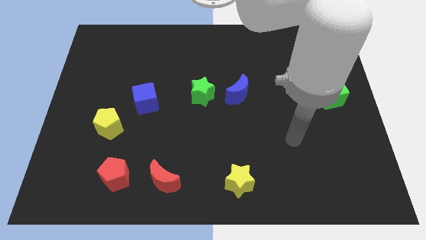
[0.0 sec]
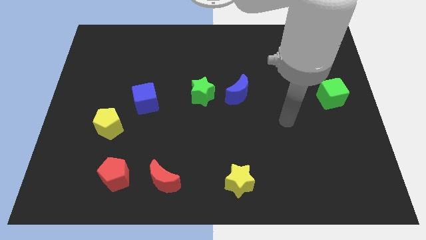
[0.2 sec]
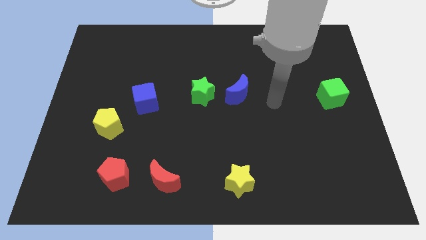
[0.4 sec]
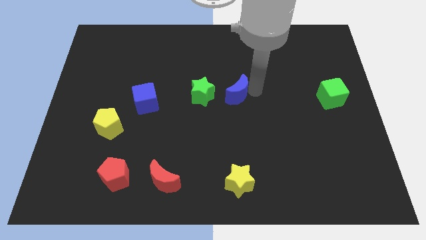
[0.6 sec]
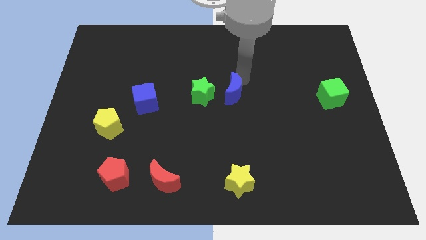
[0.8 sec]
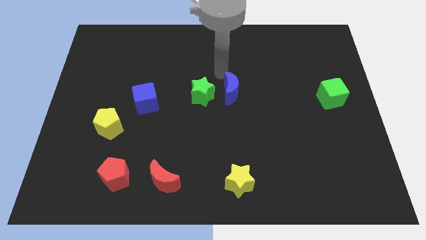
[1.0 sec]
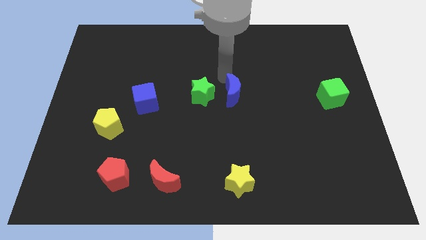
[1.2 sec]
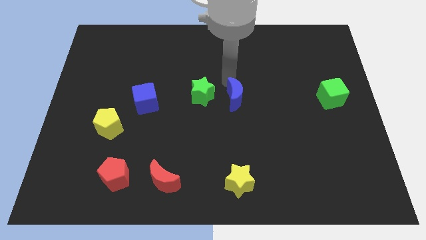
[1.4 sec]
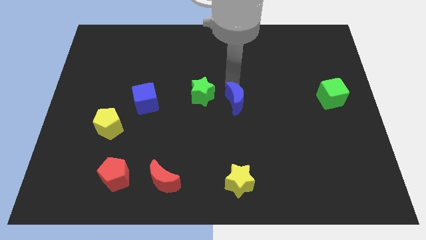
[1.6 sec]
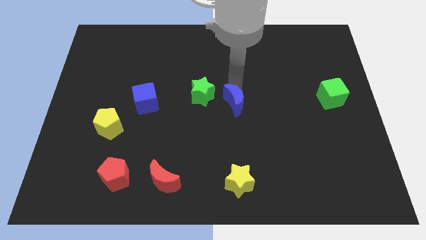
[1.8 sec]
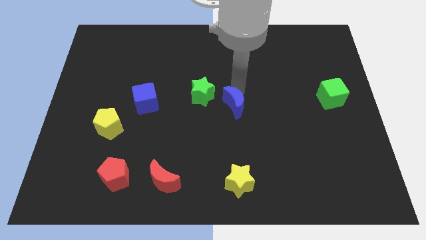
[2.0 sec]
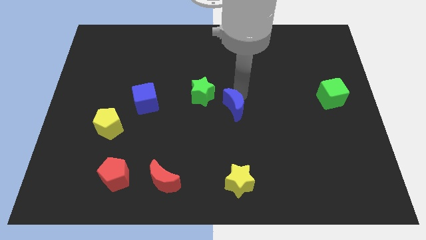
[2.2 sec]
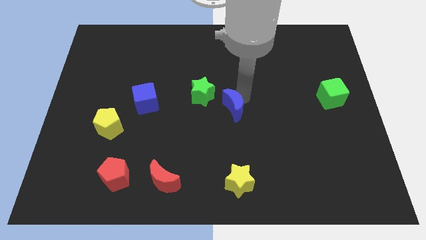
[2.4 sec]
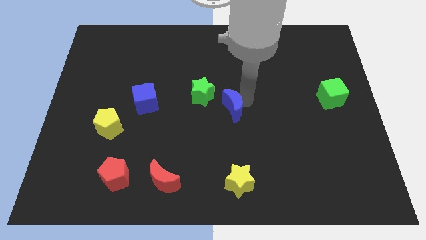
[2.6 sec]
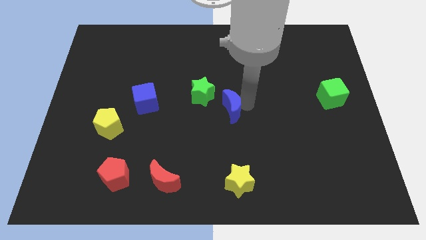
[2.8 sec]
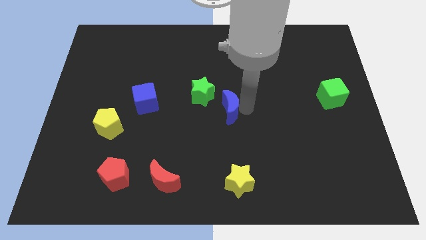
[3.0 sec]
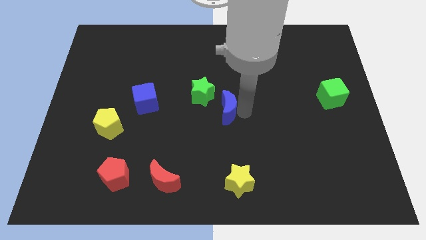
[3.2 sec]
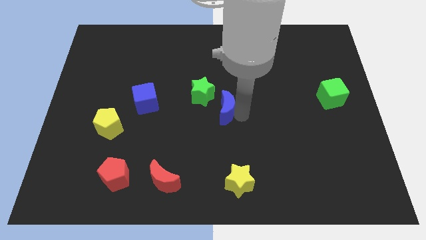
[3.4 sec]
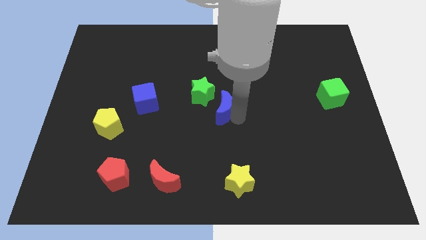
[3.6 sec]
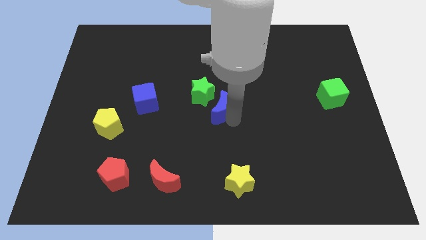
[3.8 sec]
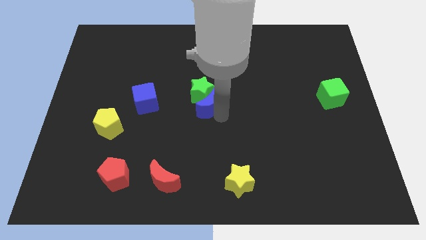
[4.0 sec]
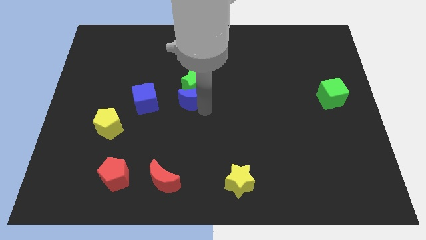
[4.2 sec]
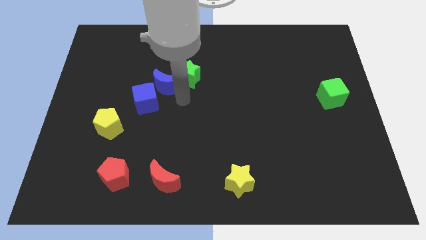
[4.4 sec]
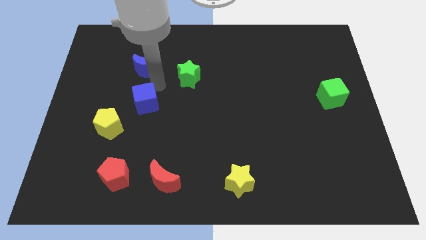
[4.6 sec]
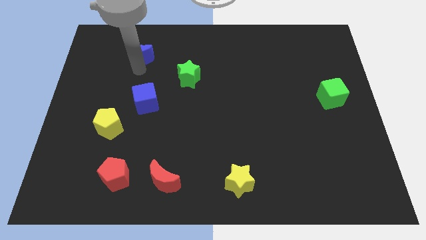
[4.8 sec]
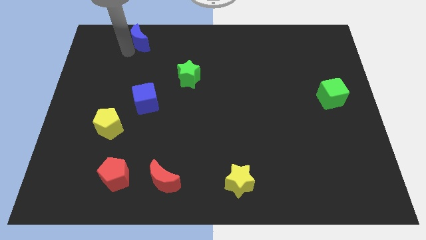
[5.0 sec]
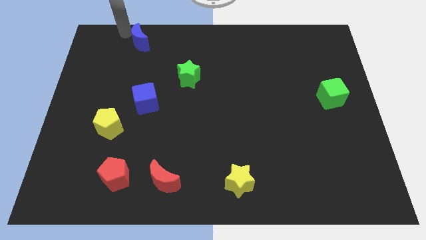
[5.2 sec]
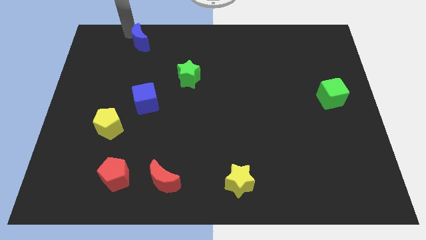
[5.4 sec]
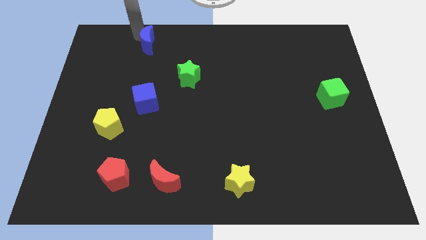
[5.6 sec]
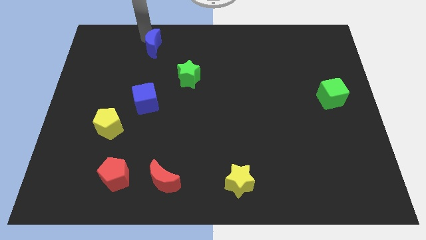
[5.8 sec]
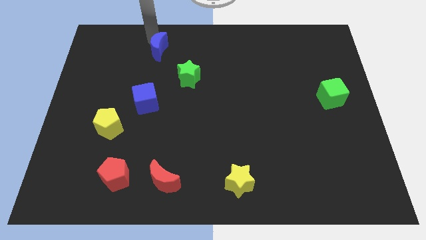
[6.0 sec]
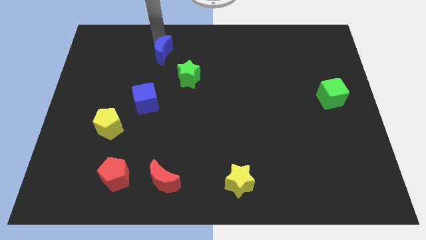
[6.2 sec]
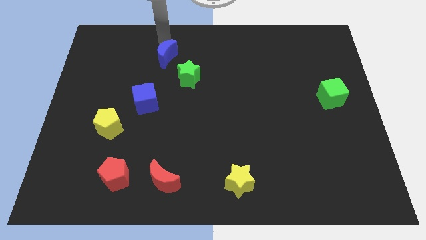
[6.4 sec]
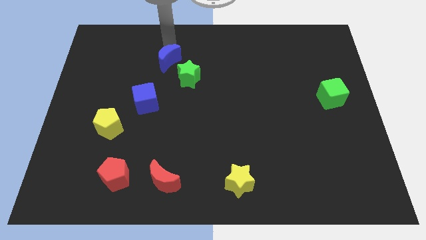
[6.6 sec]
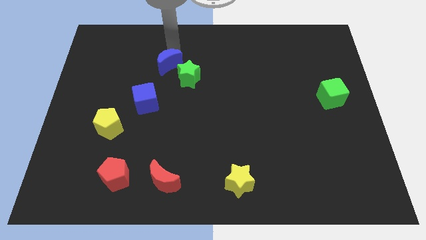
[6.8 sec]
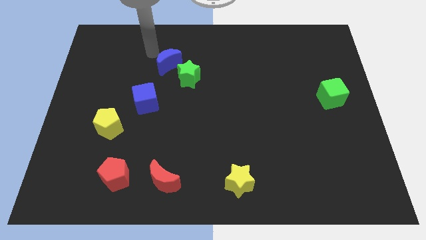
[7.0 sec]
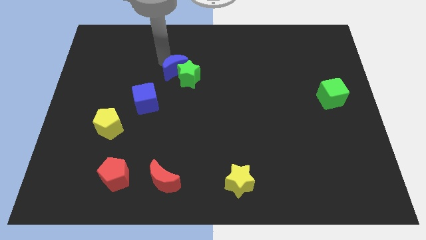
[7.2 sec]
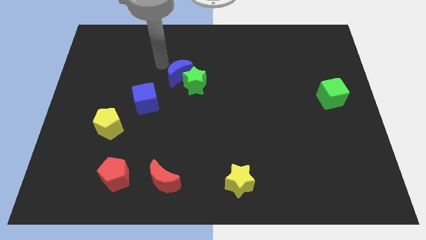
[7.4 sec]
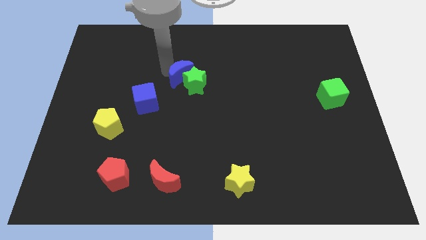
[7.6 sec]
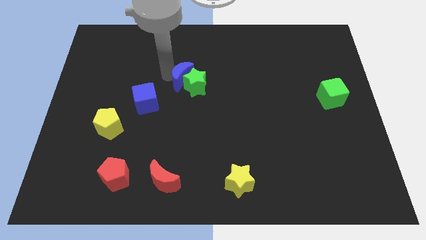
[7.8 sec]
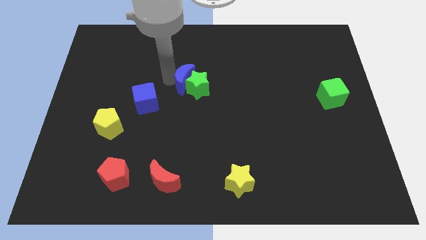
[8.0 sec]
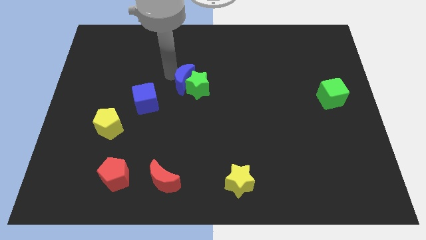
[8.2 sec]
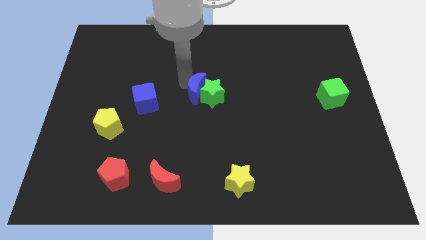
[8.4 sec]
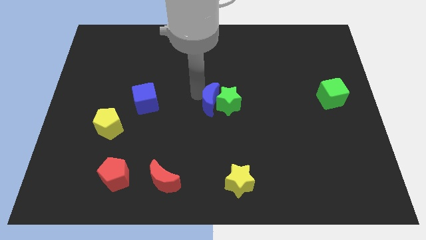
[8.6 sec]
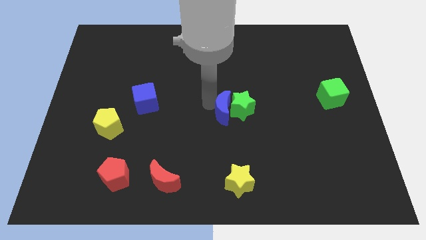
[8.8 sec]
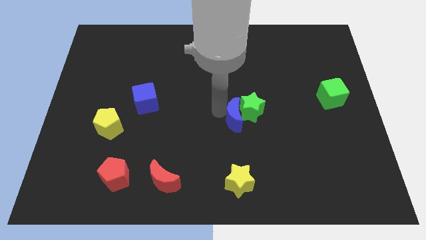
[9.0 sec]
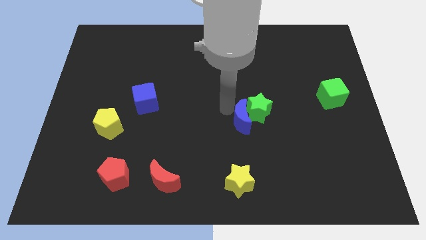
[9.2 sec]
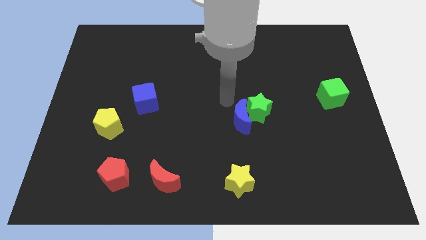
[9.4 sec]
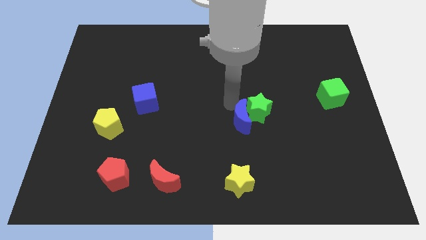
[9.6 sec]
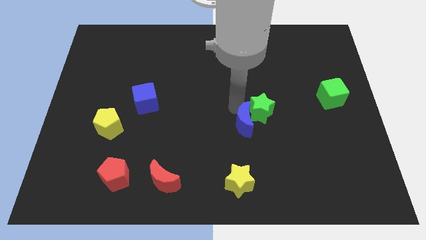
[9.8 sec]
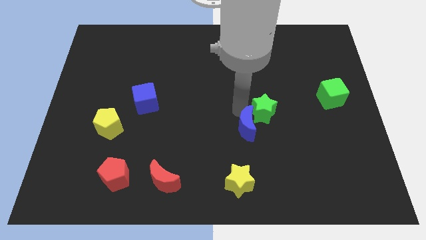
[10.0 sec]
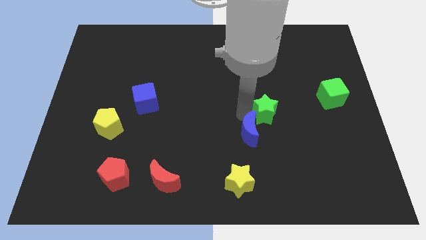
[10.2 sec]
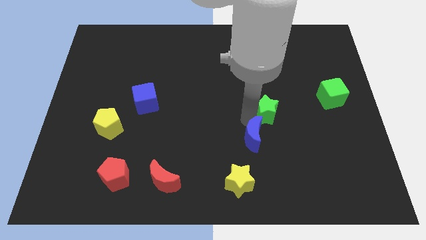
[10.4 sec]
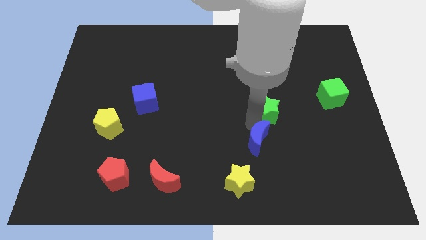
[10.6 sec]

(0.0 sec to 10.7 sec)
move the blue moon diagonally up and to the right of the yellow star

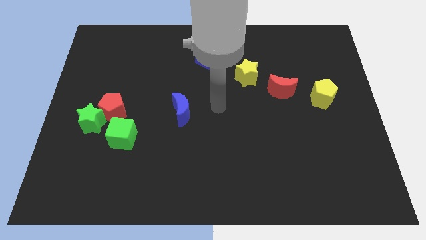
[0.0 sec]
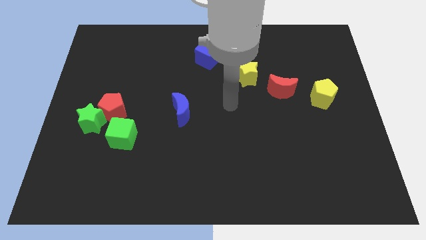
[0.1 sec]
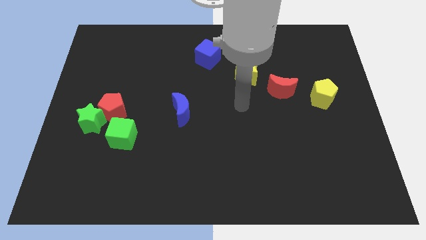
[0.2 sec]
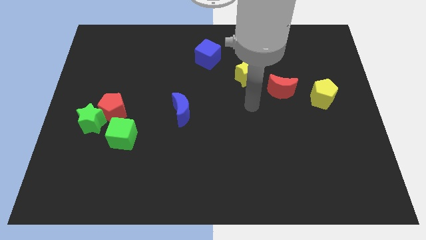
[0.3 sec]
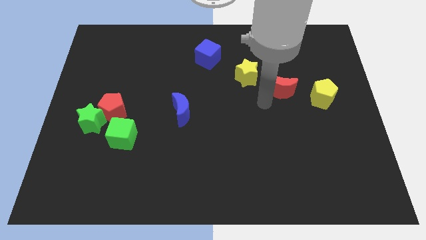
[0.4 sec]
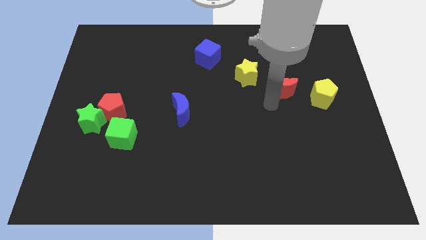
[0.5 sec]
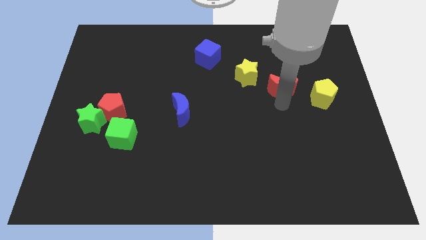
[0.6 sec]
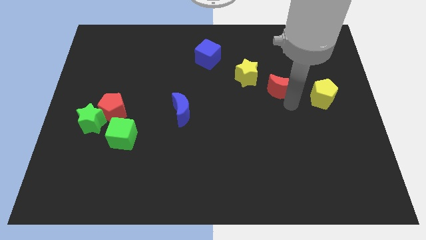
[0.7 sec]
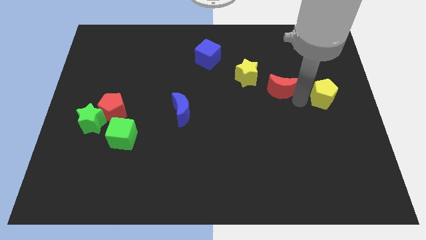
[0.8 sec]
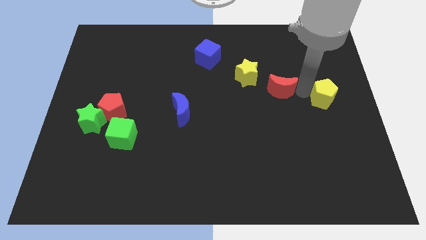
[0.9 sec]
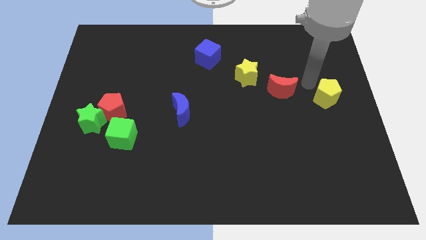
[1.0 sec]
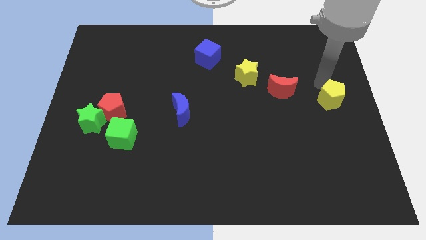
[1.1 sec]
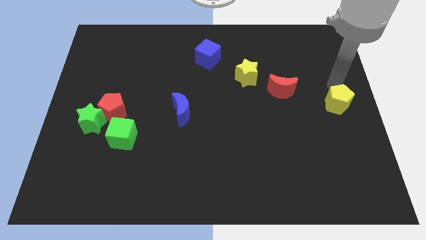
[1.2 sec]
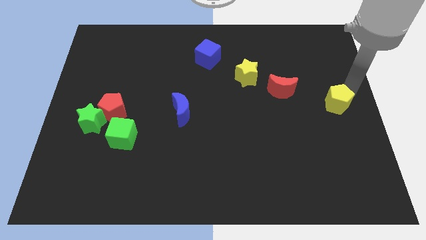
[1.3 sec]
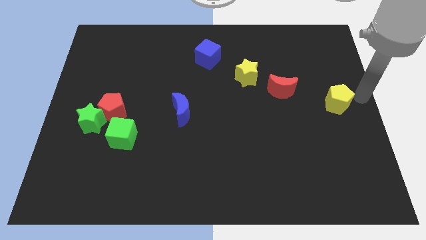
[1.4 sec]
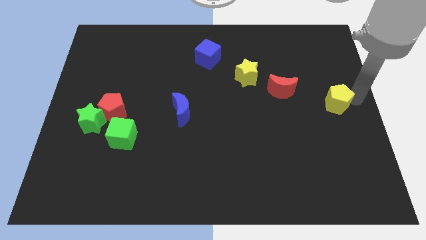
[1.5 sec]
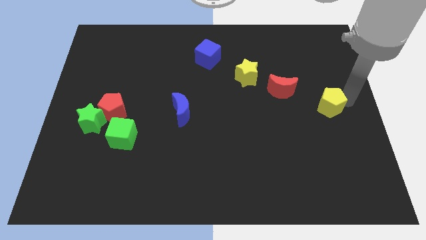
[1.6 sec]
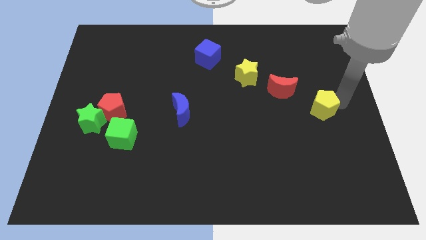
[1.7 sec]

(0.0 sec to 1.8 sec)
put the yellow pentagon to the bottom right of the red moon

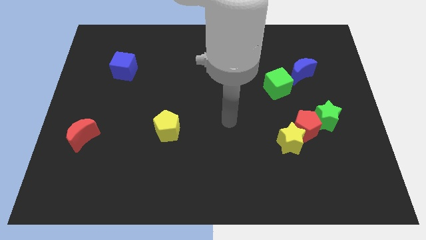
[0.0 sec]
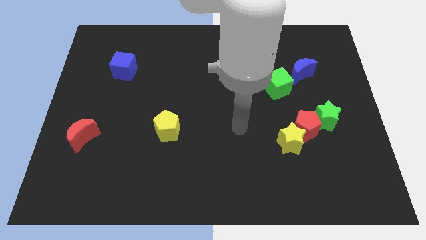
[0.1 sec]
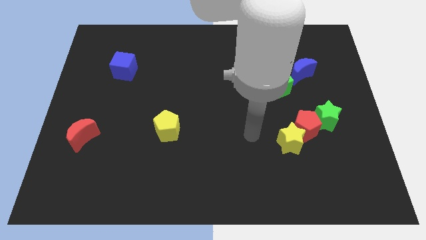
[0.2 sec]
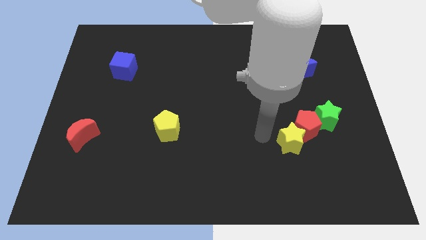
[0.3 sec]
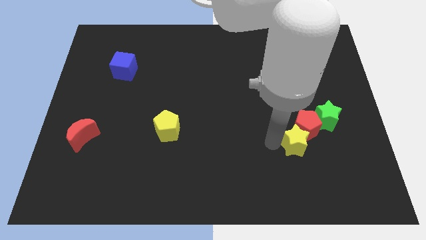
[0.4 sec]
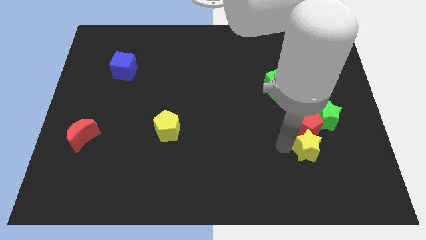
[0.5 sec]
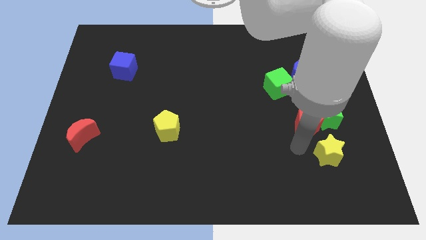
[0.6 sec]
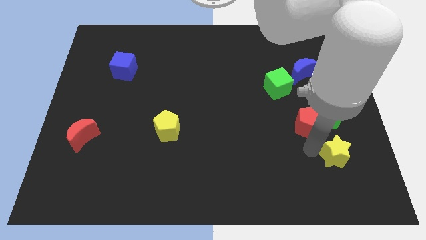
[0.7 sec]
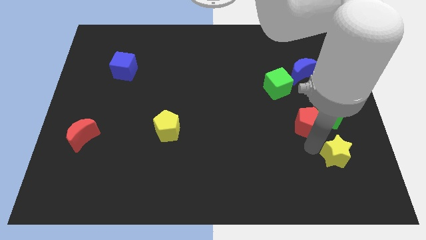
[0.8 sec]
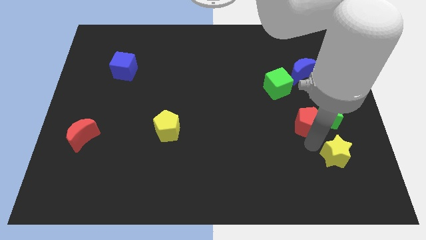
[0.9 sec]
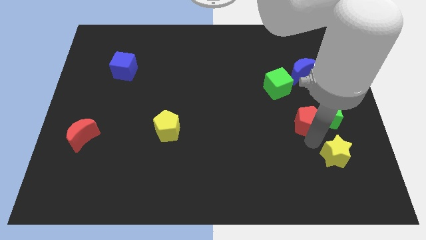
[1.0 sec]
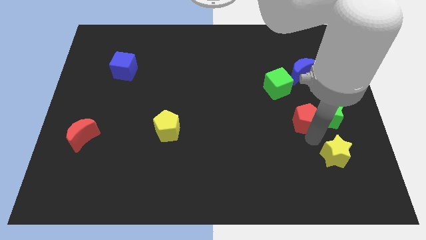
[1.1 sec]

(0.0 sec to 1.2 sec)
put the red pentagon diagonally down and to the right of the green cube
